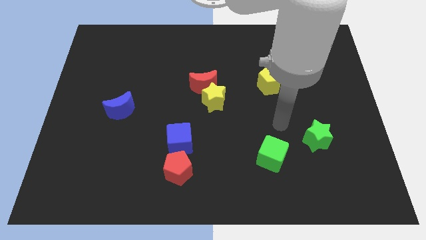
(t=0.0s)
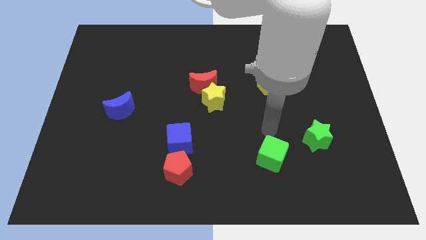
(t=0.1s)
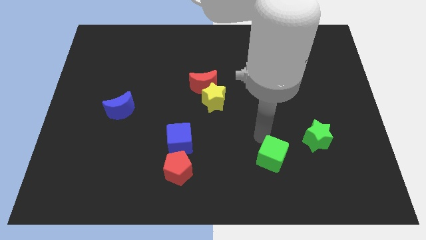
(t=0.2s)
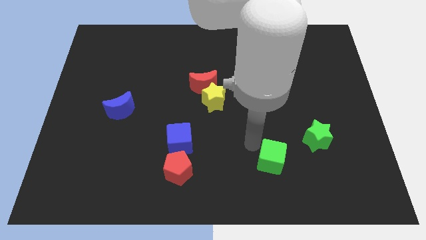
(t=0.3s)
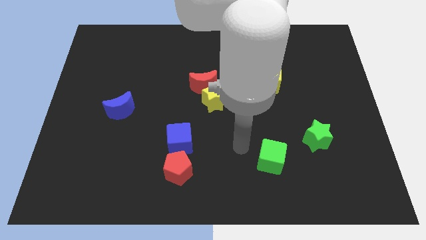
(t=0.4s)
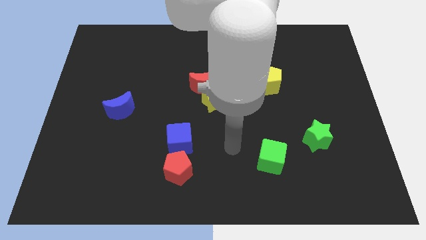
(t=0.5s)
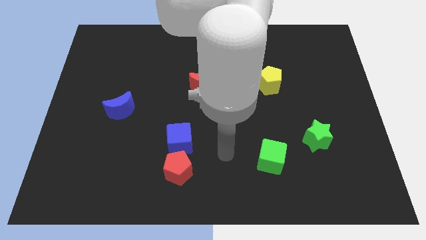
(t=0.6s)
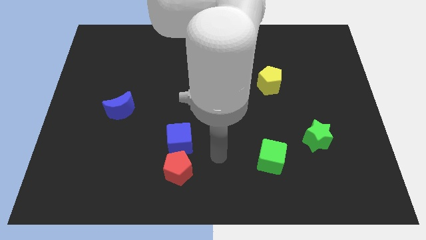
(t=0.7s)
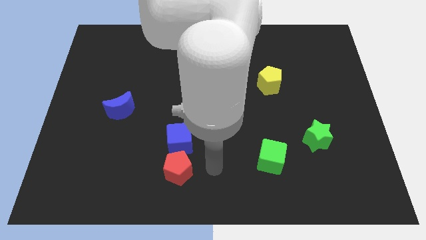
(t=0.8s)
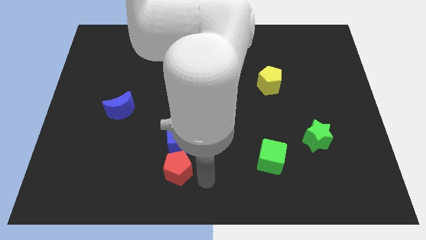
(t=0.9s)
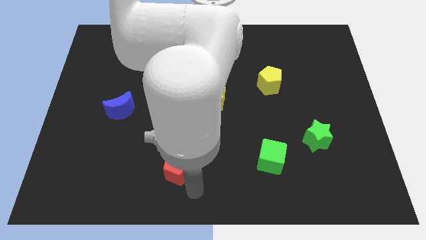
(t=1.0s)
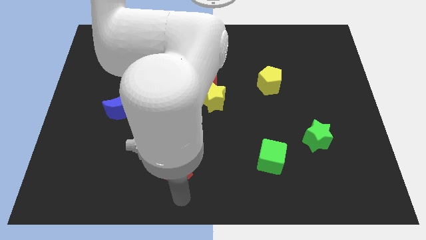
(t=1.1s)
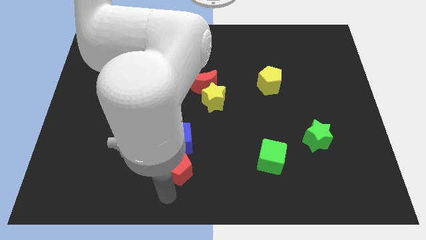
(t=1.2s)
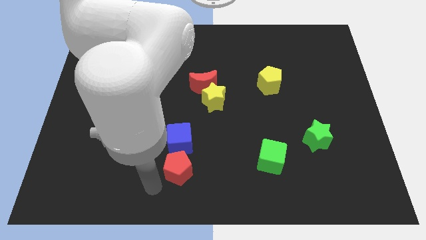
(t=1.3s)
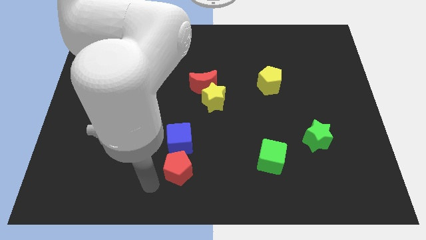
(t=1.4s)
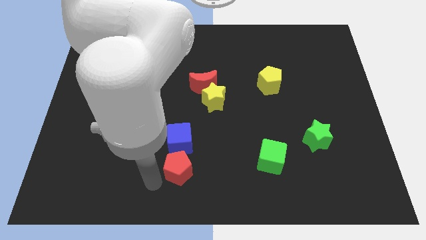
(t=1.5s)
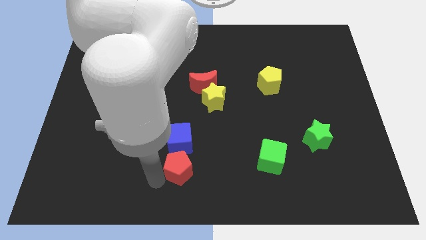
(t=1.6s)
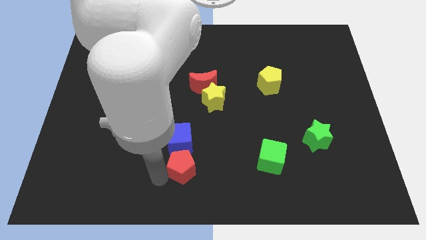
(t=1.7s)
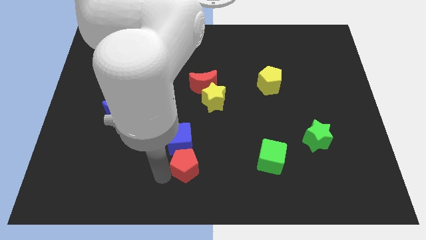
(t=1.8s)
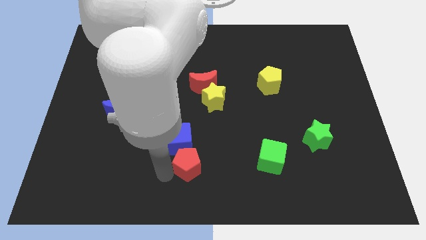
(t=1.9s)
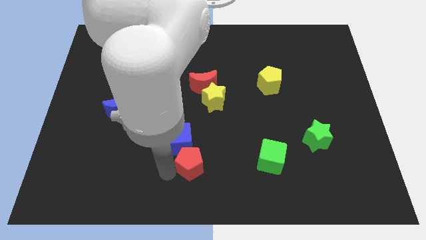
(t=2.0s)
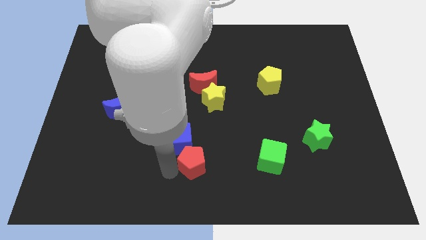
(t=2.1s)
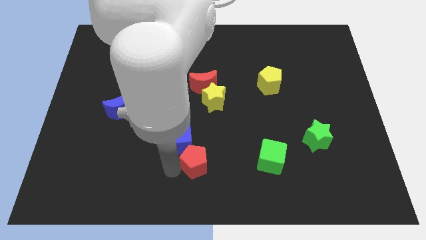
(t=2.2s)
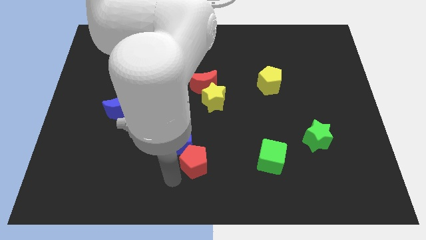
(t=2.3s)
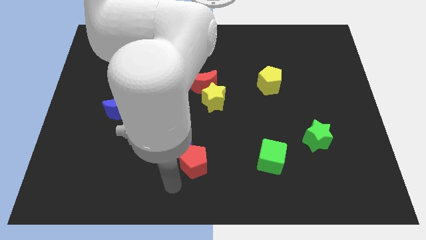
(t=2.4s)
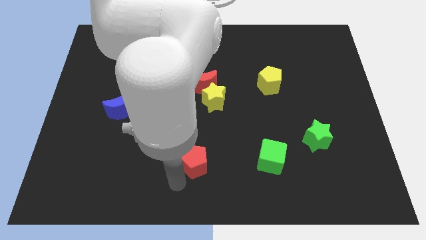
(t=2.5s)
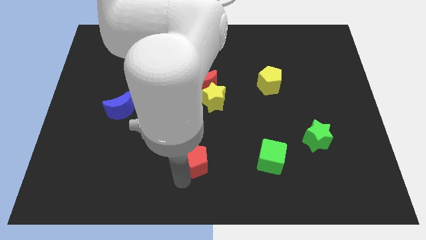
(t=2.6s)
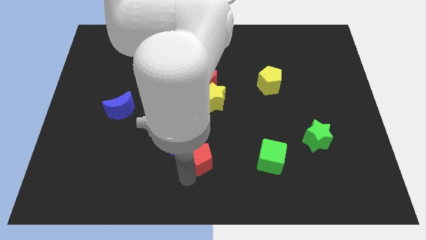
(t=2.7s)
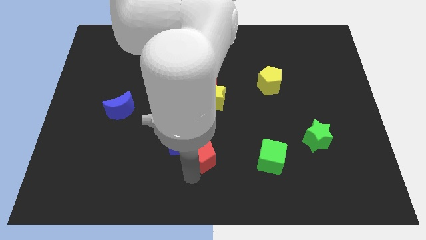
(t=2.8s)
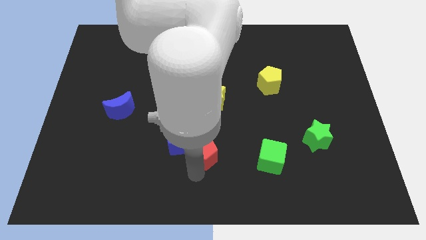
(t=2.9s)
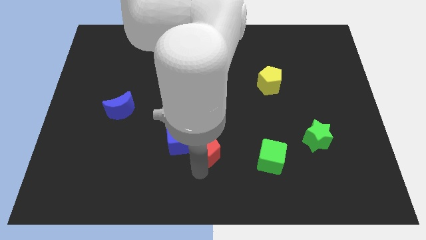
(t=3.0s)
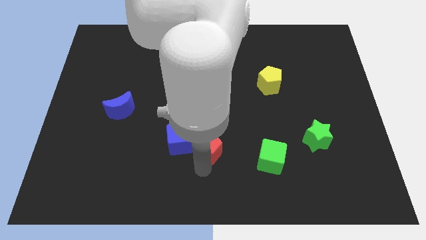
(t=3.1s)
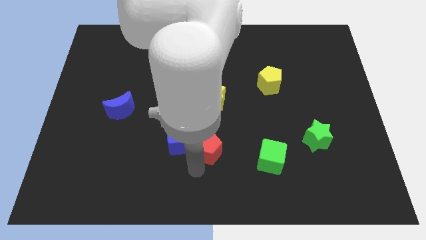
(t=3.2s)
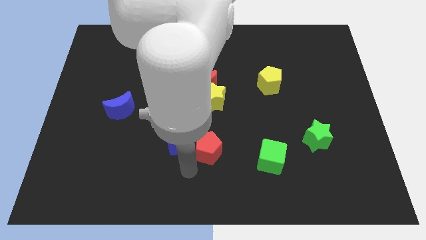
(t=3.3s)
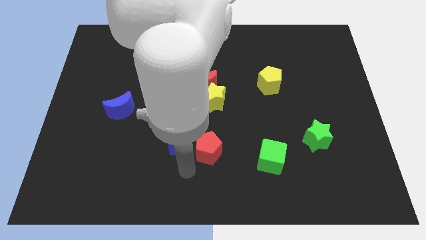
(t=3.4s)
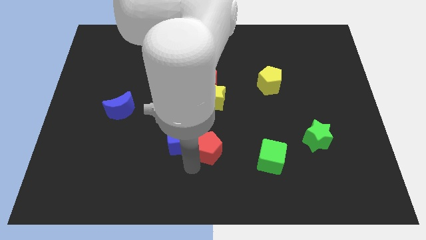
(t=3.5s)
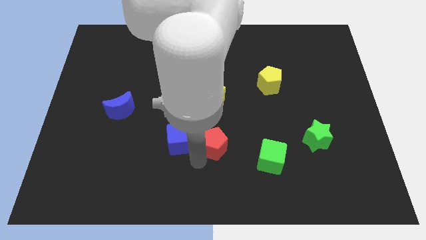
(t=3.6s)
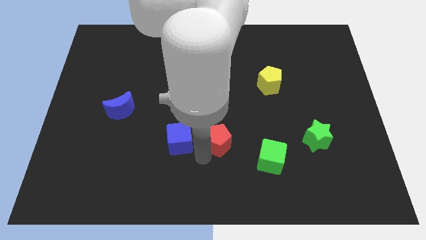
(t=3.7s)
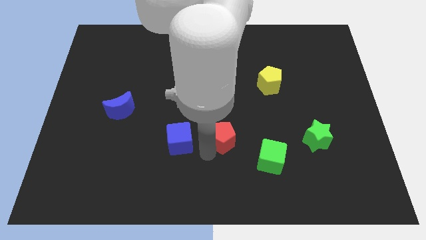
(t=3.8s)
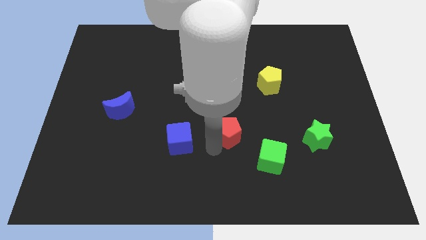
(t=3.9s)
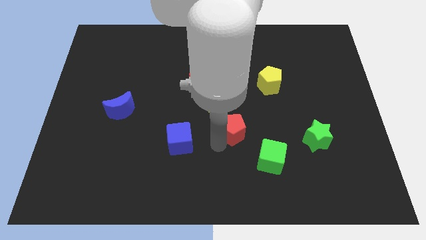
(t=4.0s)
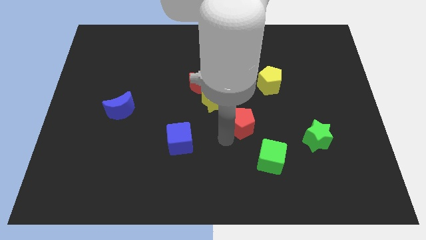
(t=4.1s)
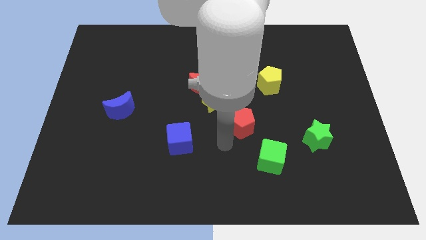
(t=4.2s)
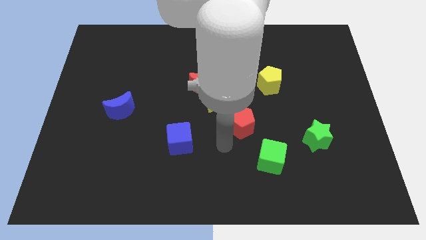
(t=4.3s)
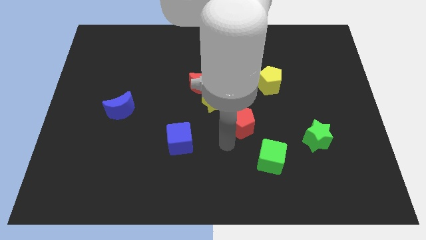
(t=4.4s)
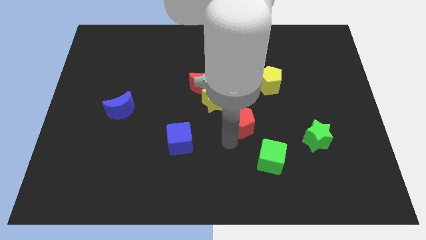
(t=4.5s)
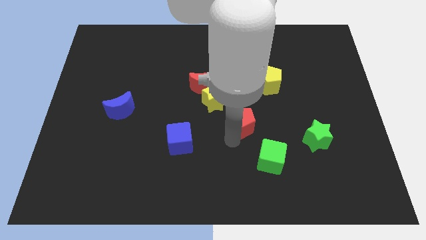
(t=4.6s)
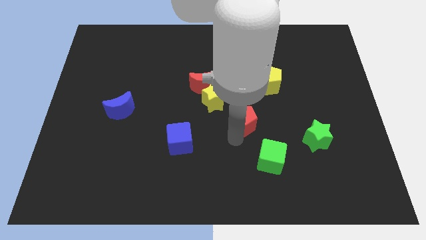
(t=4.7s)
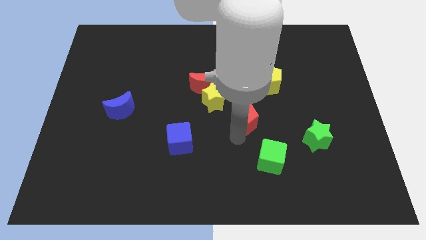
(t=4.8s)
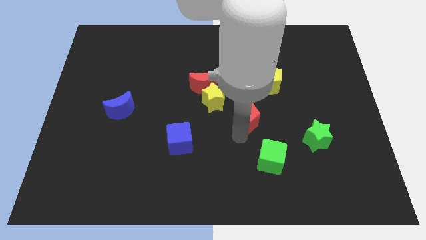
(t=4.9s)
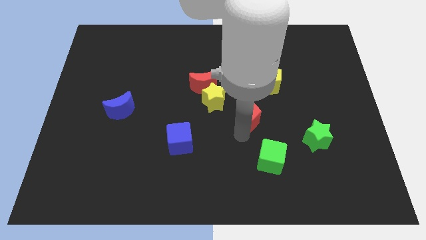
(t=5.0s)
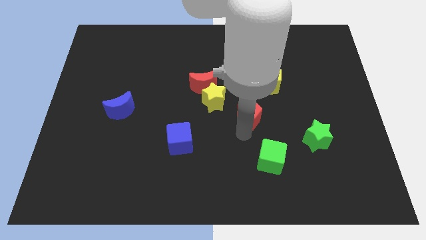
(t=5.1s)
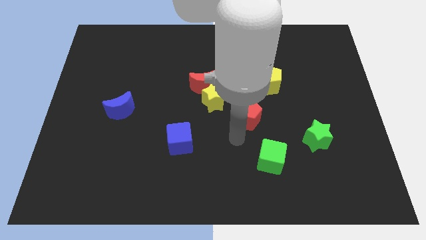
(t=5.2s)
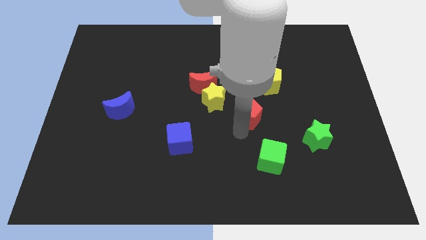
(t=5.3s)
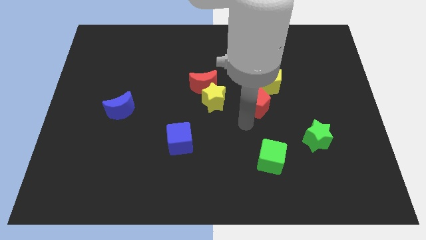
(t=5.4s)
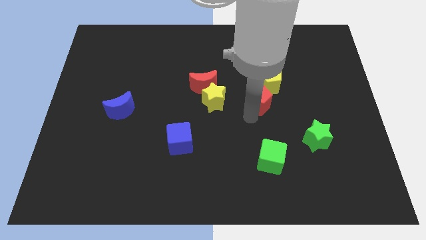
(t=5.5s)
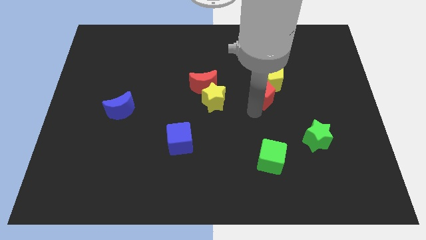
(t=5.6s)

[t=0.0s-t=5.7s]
move the red pentagon towards the yellow pentagon

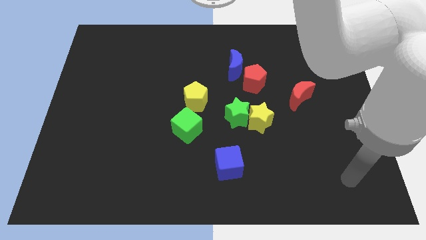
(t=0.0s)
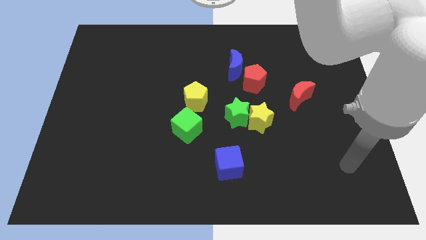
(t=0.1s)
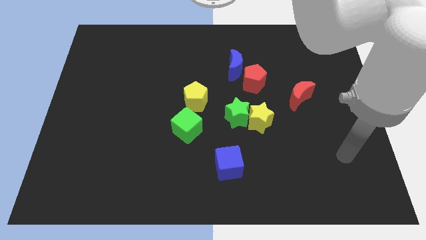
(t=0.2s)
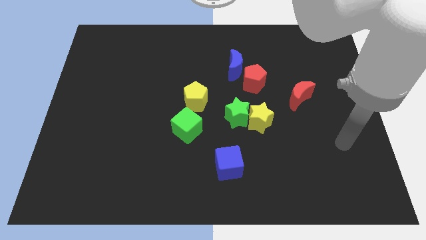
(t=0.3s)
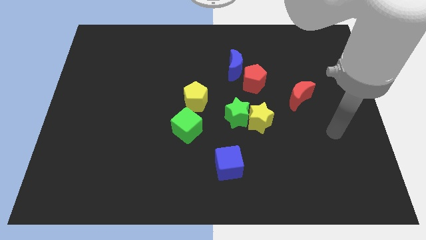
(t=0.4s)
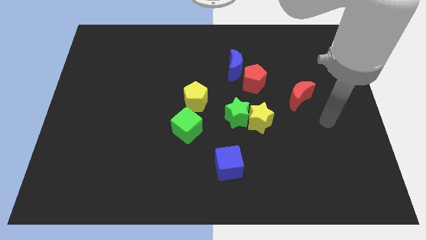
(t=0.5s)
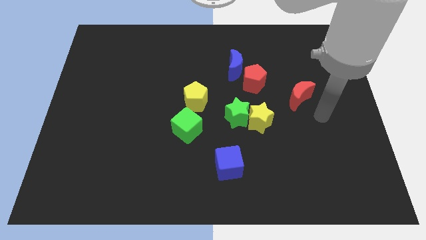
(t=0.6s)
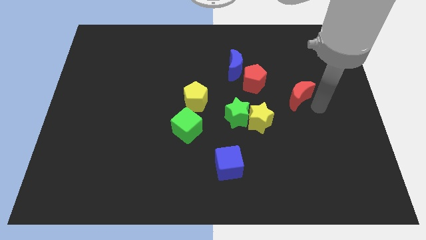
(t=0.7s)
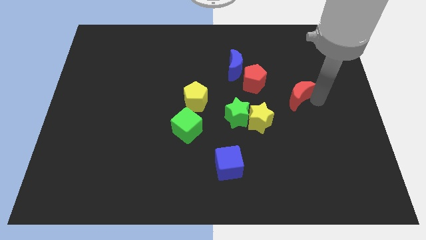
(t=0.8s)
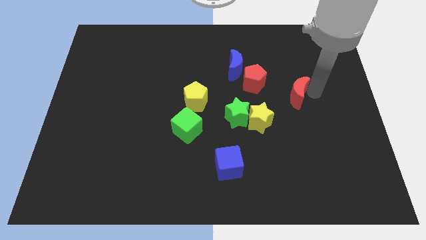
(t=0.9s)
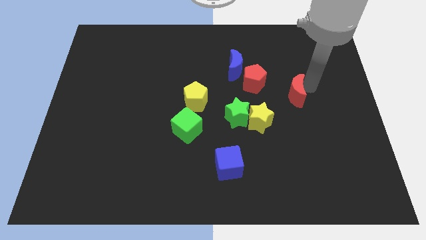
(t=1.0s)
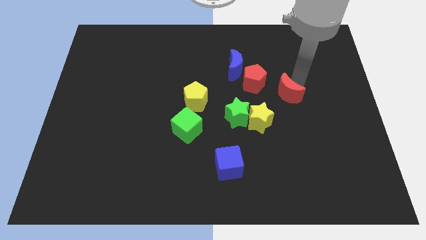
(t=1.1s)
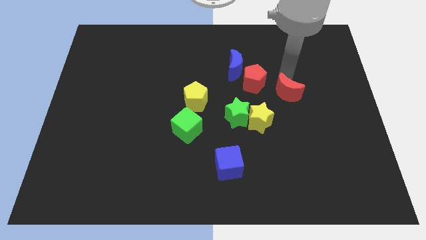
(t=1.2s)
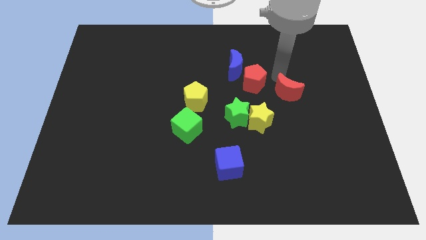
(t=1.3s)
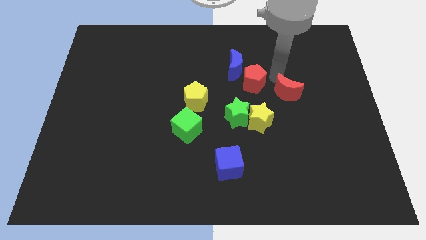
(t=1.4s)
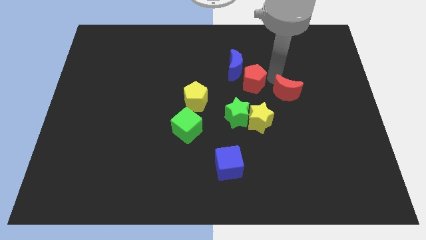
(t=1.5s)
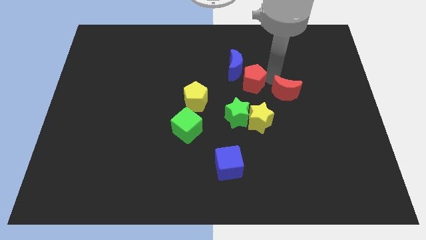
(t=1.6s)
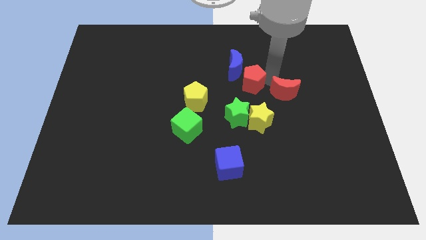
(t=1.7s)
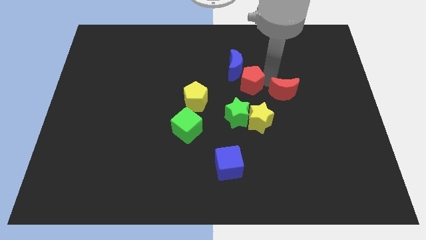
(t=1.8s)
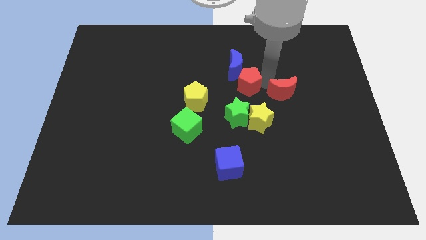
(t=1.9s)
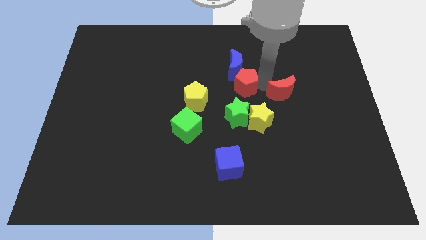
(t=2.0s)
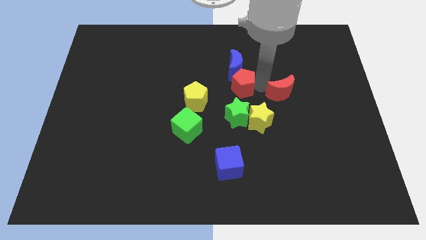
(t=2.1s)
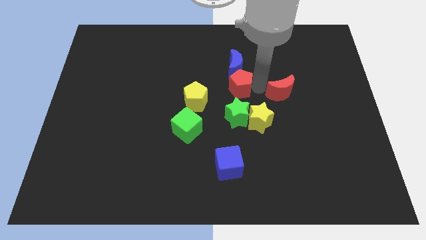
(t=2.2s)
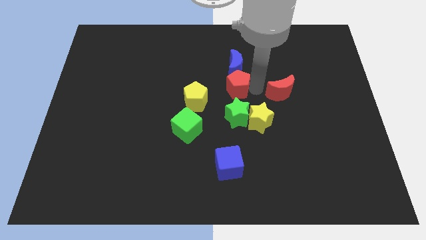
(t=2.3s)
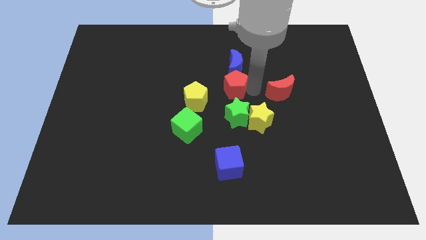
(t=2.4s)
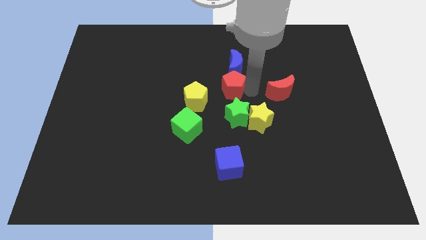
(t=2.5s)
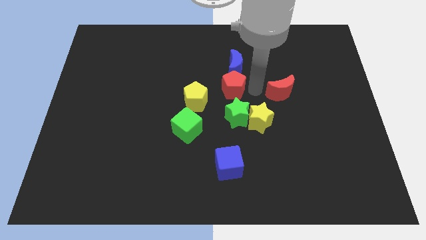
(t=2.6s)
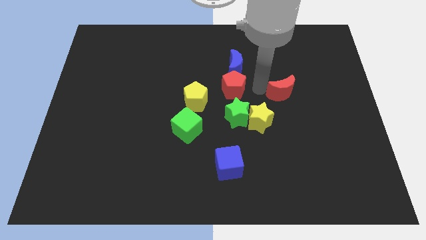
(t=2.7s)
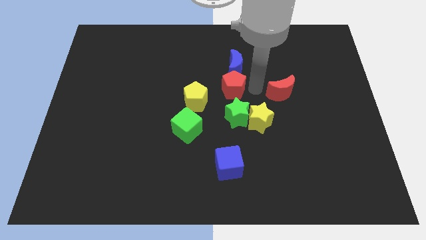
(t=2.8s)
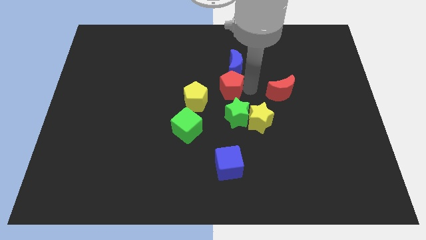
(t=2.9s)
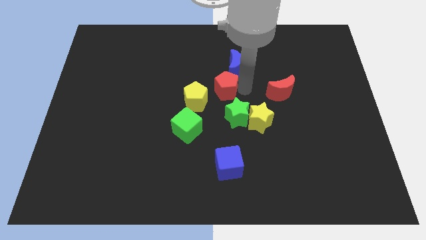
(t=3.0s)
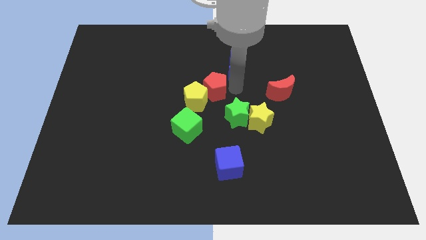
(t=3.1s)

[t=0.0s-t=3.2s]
put the red pentagon to the yellow pentagon
